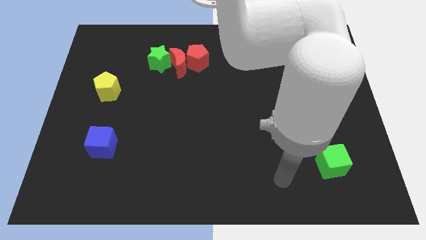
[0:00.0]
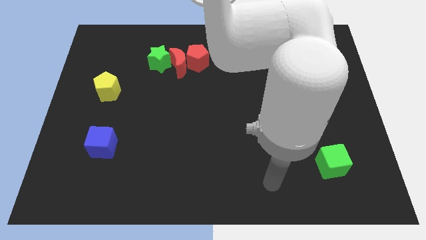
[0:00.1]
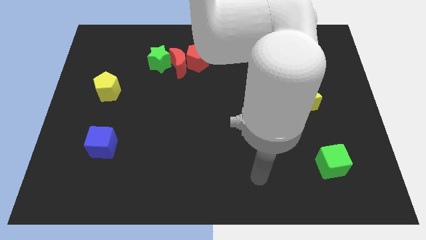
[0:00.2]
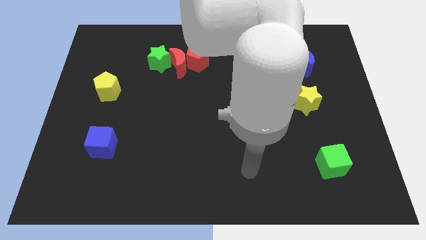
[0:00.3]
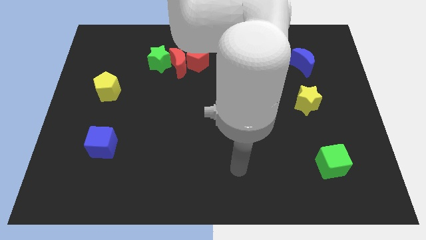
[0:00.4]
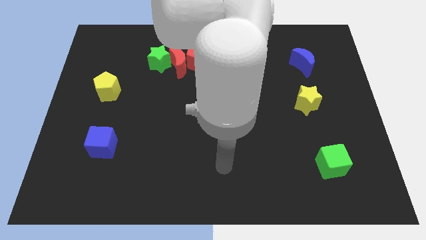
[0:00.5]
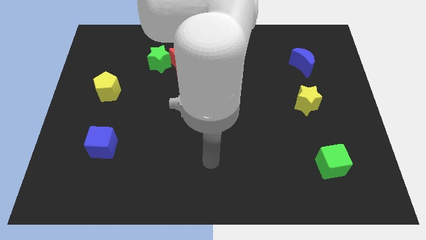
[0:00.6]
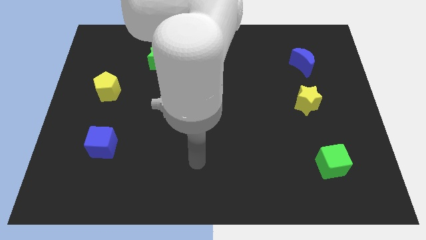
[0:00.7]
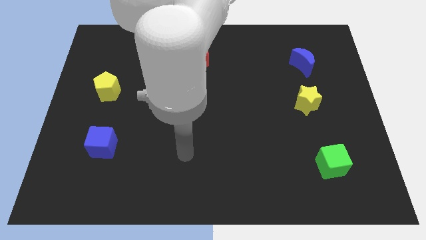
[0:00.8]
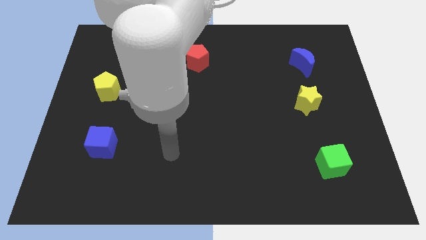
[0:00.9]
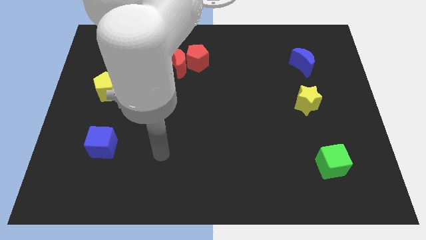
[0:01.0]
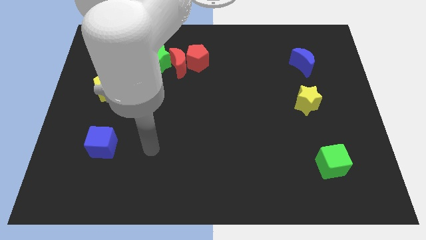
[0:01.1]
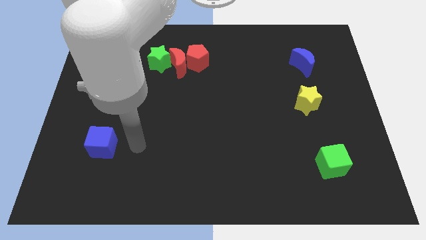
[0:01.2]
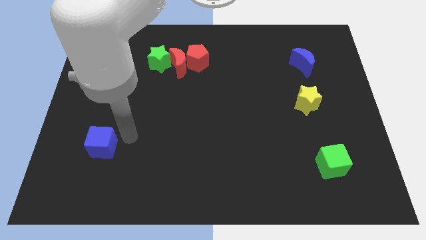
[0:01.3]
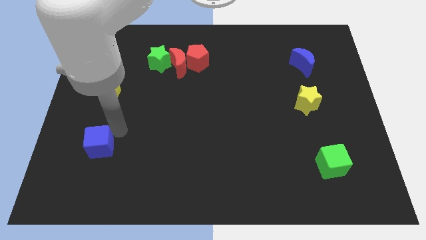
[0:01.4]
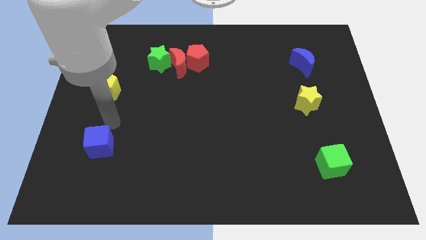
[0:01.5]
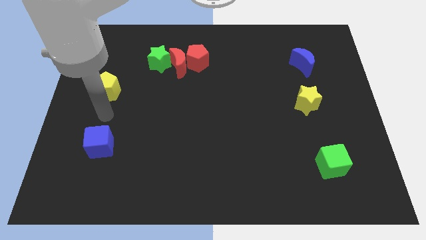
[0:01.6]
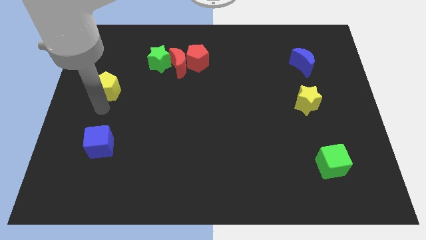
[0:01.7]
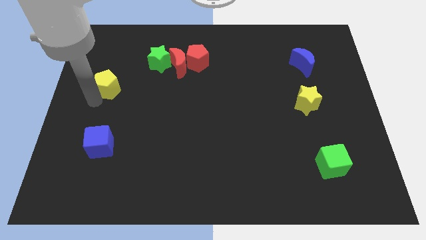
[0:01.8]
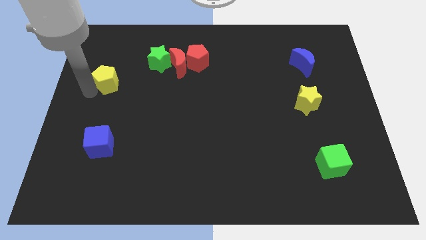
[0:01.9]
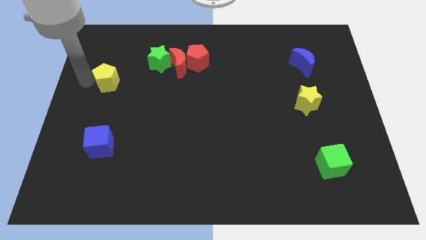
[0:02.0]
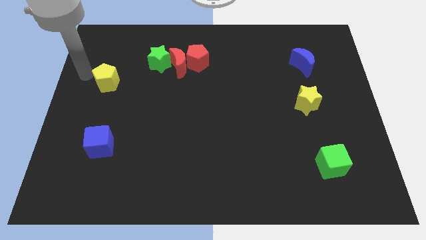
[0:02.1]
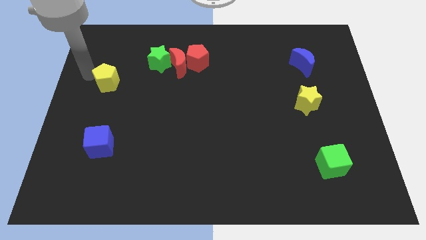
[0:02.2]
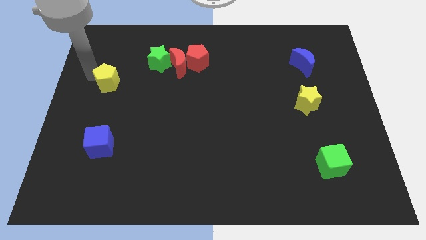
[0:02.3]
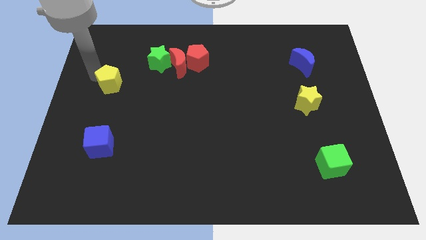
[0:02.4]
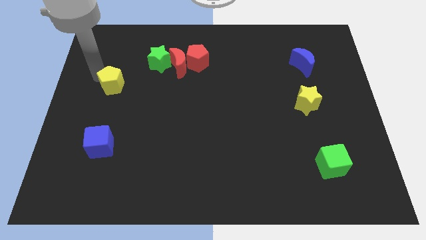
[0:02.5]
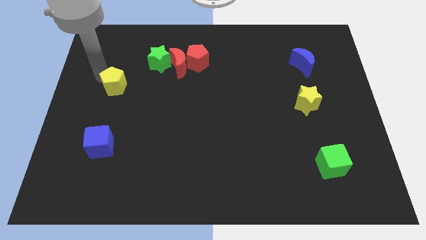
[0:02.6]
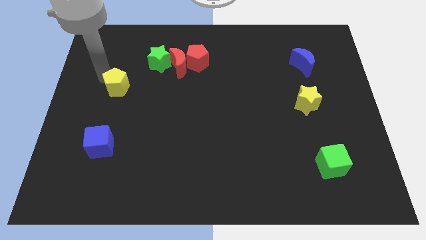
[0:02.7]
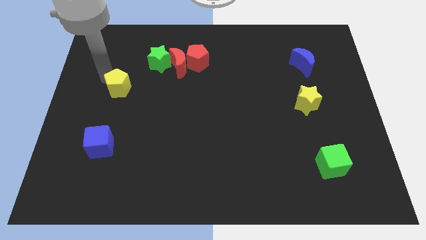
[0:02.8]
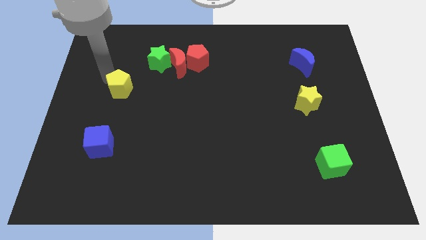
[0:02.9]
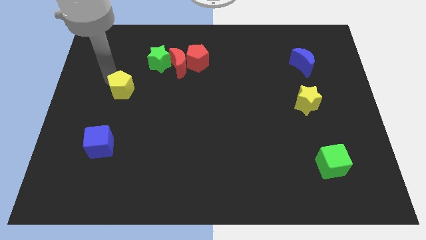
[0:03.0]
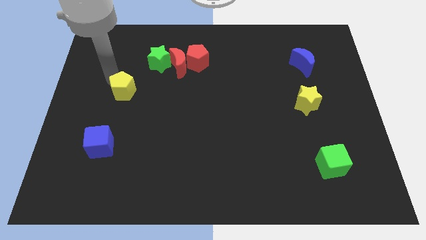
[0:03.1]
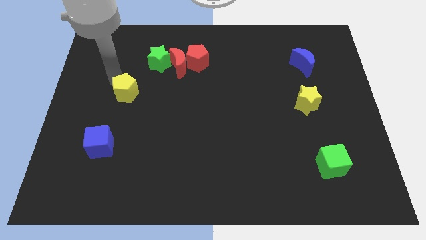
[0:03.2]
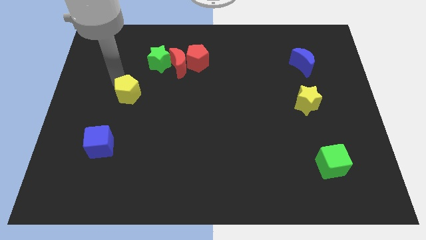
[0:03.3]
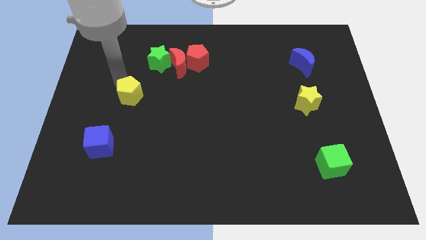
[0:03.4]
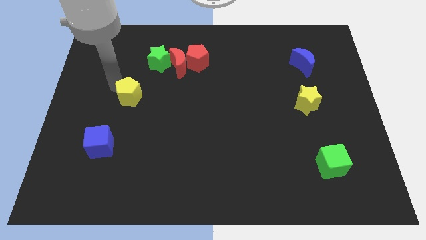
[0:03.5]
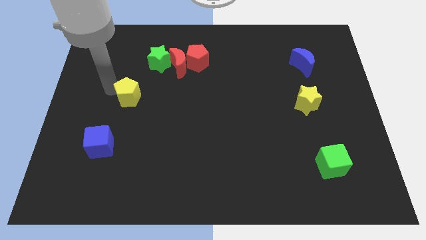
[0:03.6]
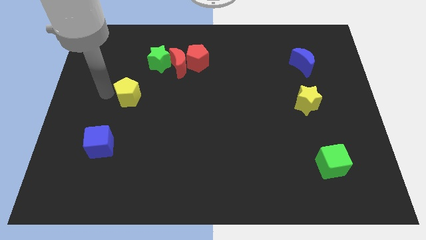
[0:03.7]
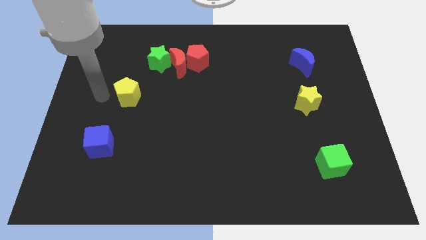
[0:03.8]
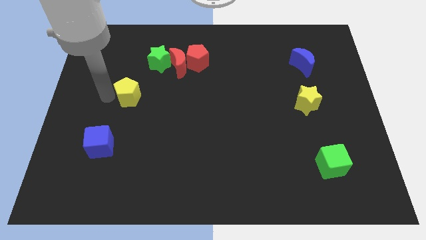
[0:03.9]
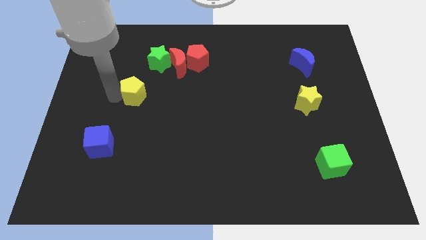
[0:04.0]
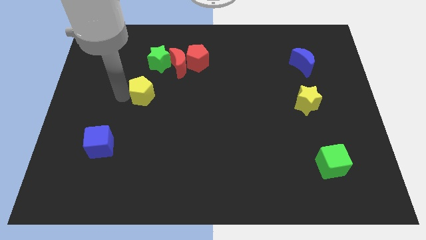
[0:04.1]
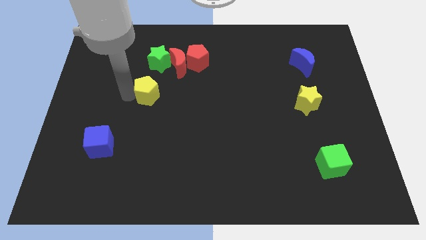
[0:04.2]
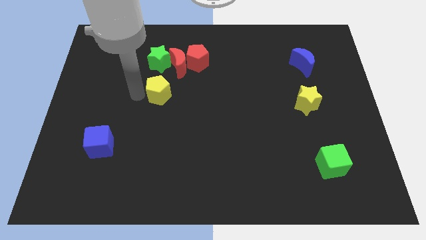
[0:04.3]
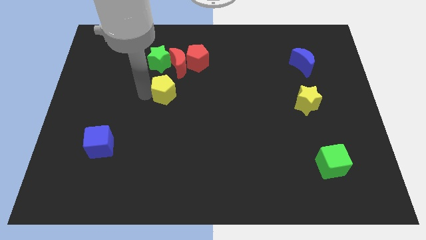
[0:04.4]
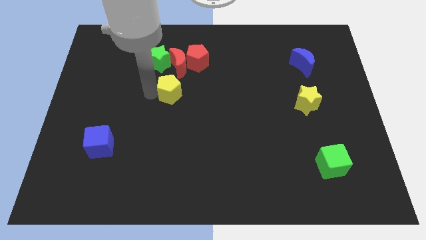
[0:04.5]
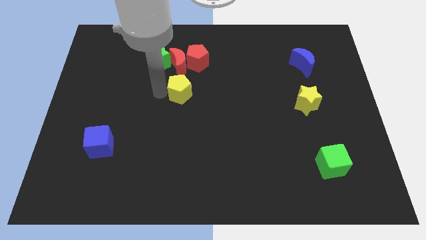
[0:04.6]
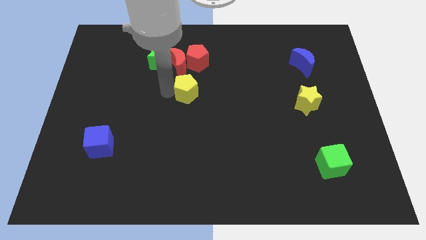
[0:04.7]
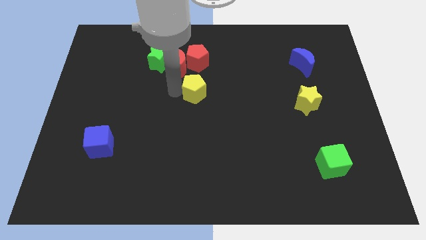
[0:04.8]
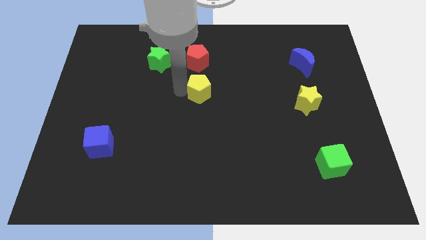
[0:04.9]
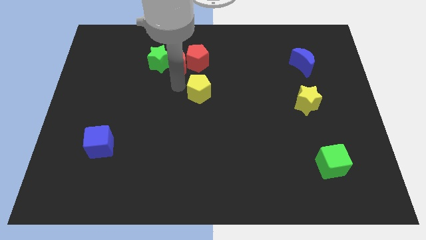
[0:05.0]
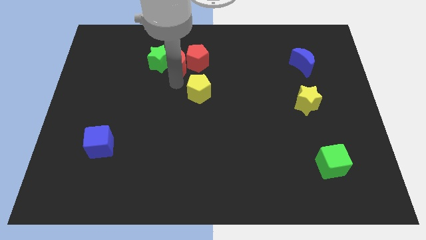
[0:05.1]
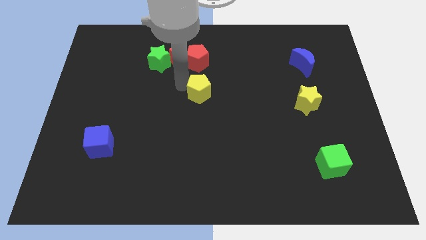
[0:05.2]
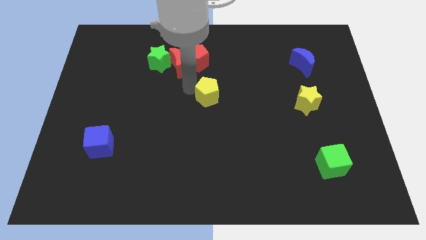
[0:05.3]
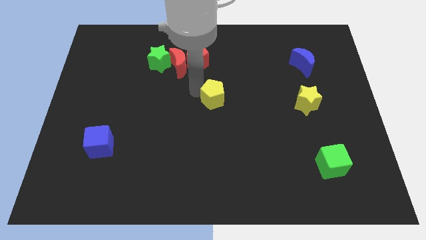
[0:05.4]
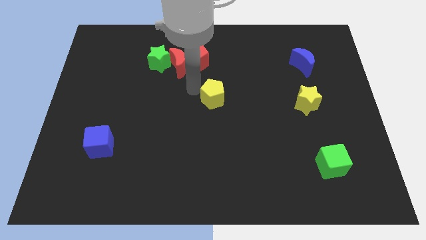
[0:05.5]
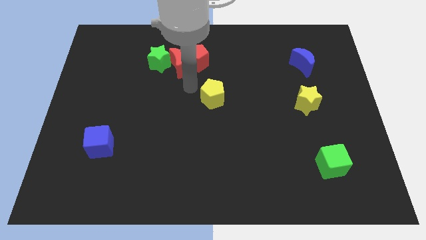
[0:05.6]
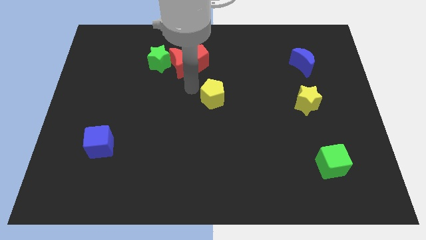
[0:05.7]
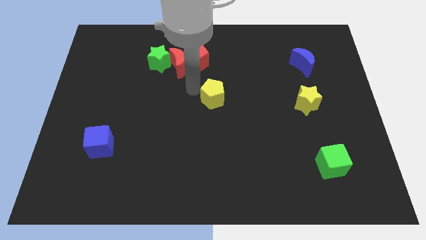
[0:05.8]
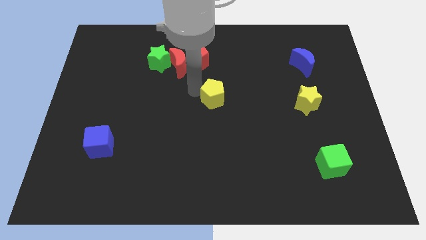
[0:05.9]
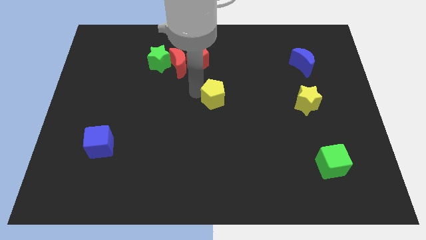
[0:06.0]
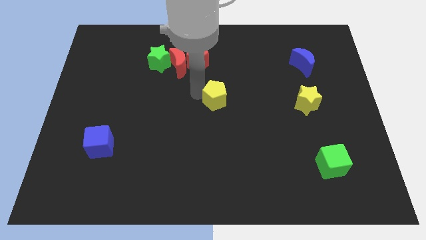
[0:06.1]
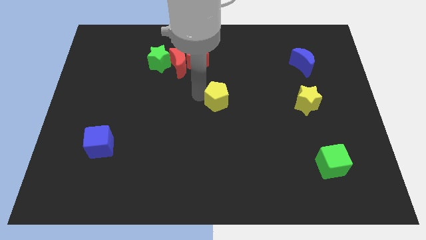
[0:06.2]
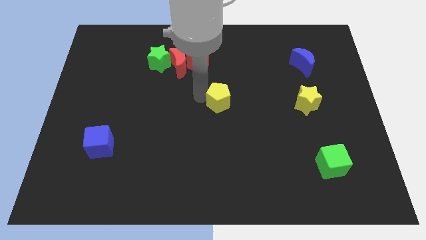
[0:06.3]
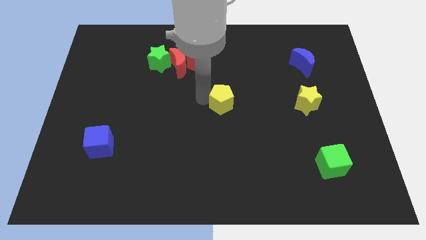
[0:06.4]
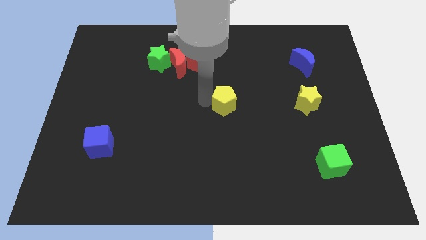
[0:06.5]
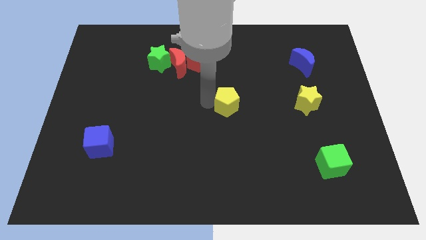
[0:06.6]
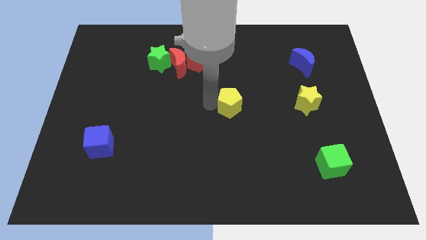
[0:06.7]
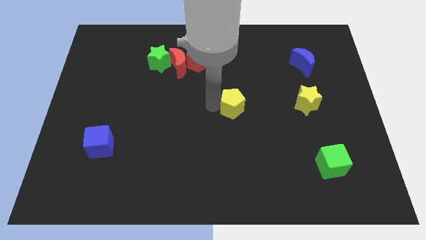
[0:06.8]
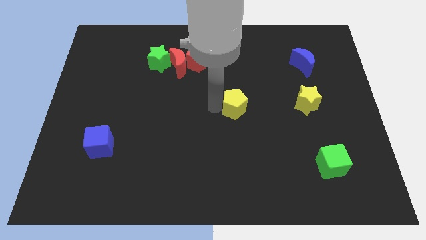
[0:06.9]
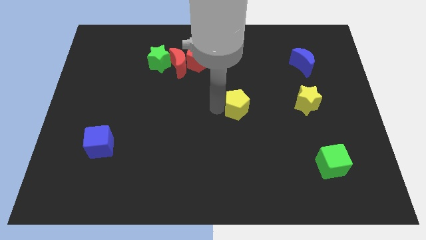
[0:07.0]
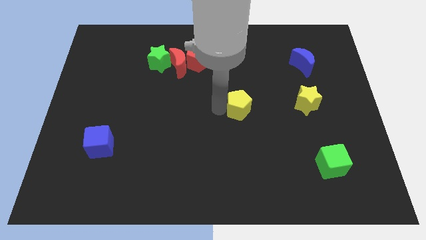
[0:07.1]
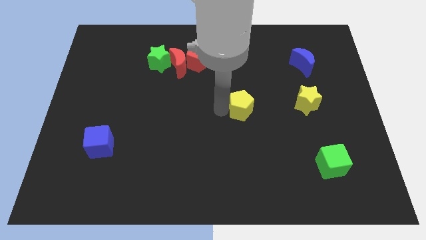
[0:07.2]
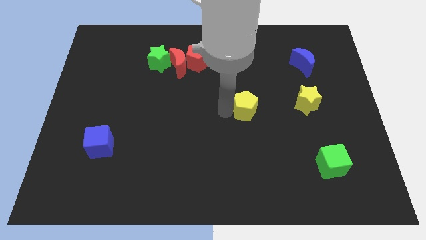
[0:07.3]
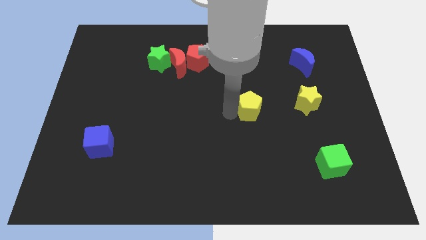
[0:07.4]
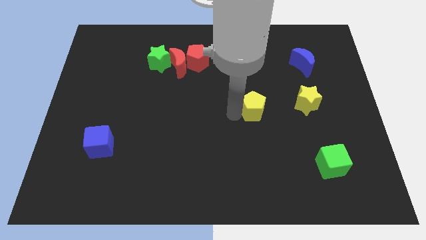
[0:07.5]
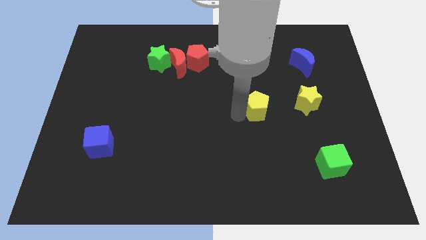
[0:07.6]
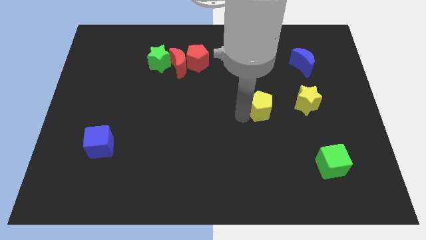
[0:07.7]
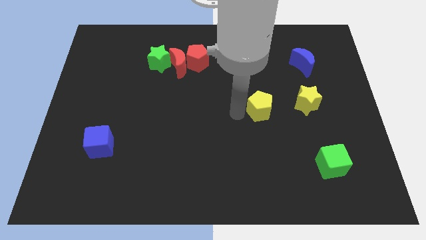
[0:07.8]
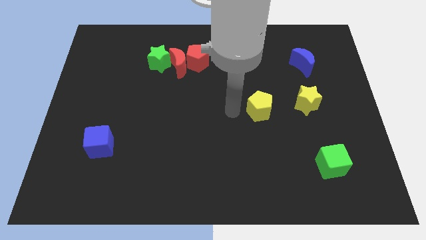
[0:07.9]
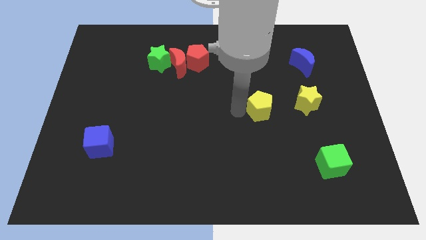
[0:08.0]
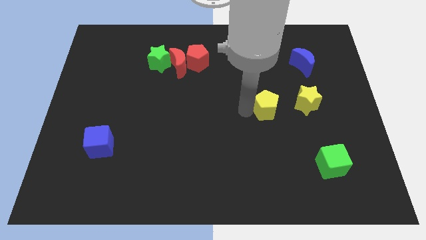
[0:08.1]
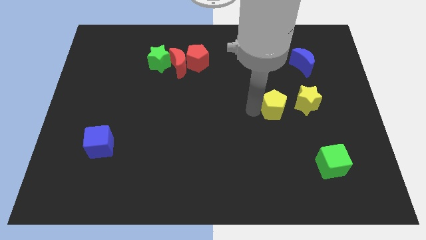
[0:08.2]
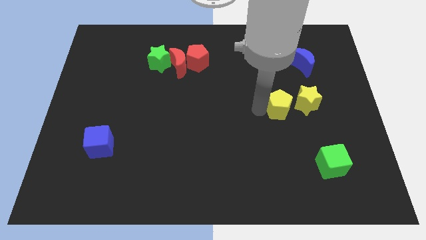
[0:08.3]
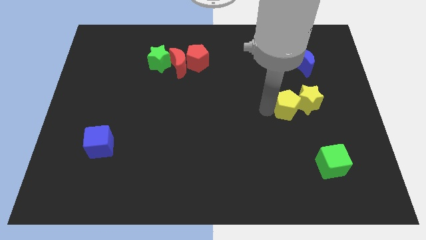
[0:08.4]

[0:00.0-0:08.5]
put the yellow pentagon close to the yellow star
